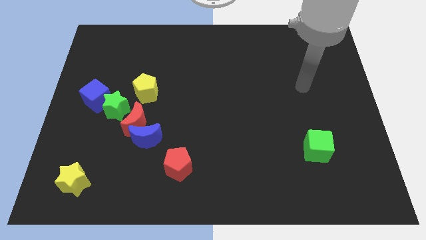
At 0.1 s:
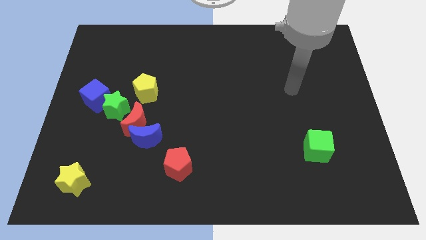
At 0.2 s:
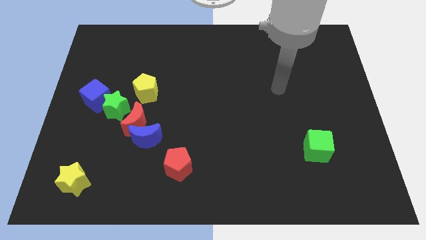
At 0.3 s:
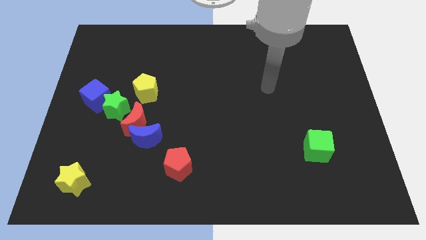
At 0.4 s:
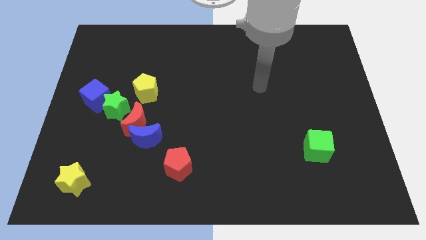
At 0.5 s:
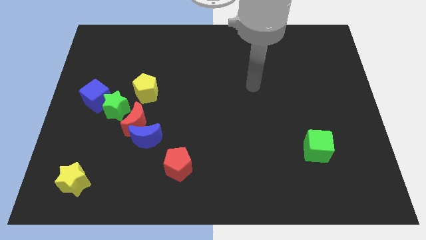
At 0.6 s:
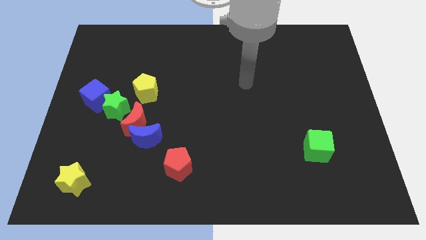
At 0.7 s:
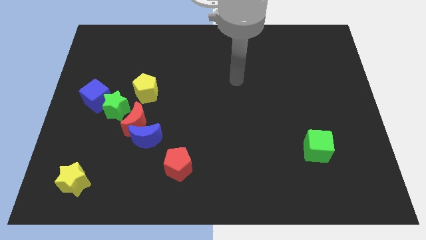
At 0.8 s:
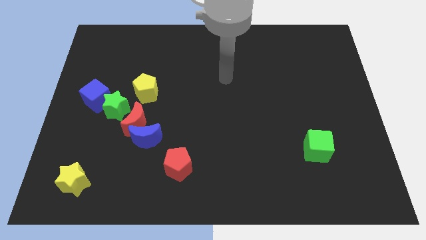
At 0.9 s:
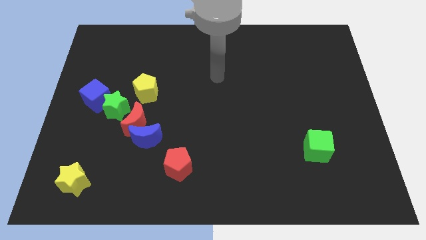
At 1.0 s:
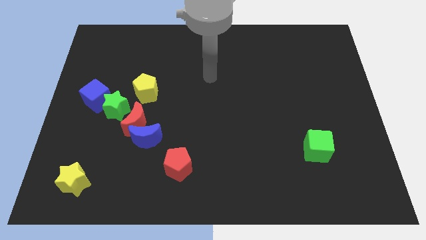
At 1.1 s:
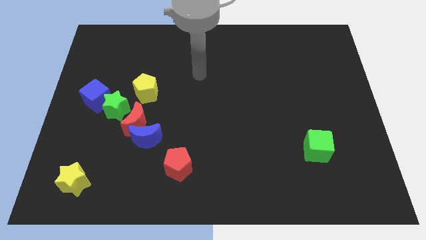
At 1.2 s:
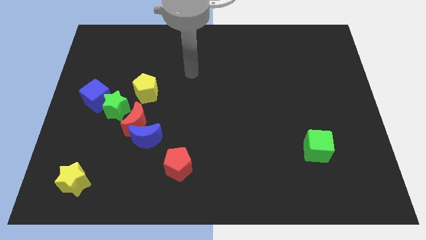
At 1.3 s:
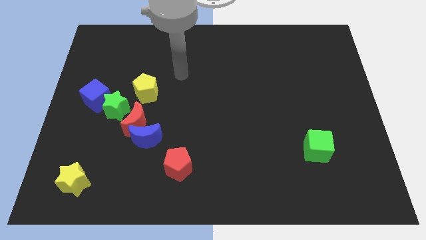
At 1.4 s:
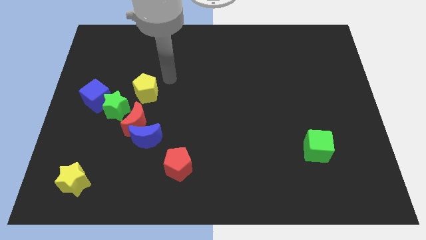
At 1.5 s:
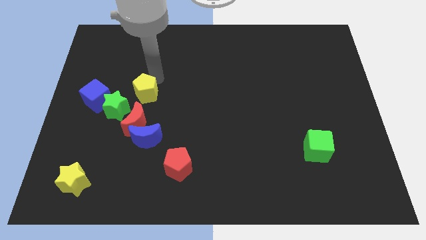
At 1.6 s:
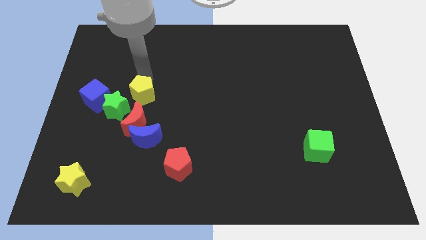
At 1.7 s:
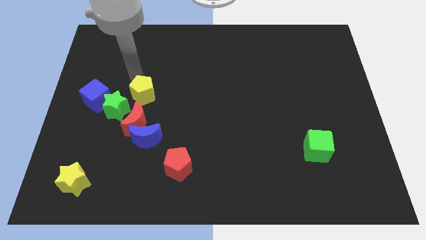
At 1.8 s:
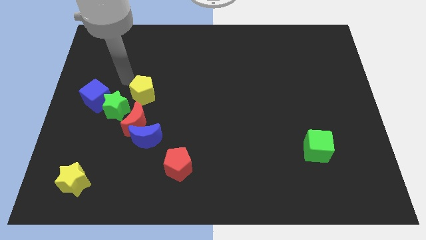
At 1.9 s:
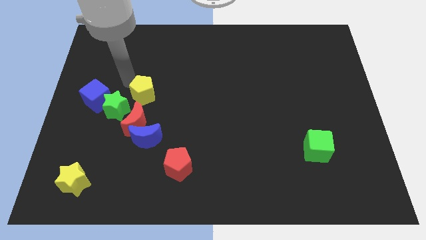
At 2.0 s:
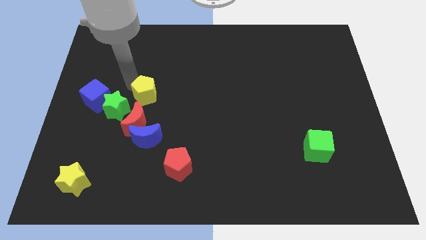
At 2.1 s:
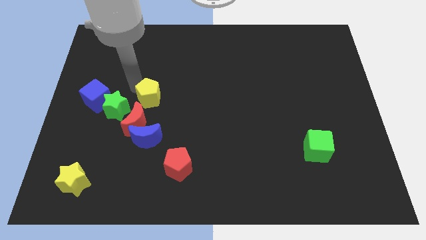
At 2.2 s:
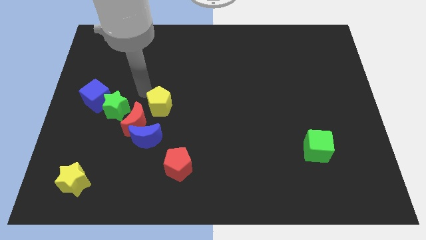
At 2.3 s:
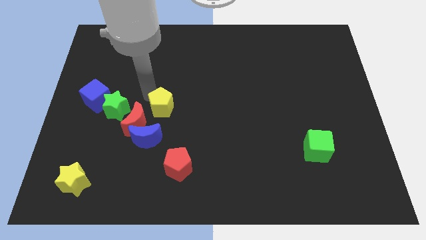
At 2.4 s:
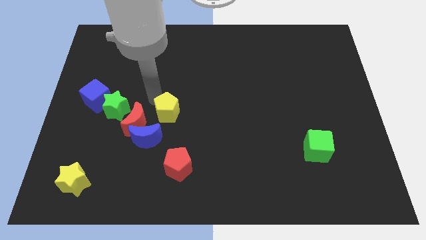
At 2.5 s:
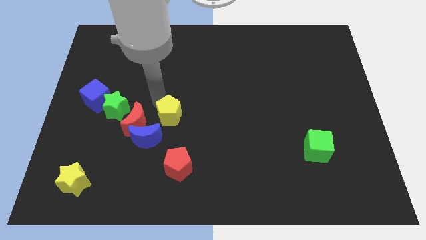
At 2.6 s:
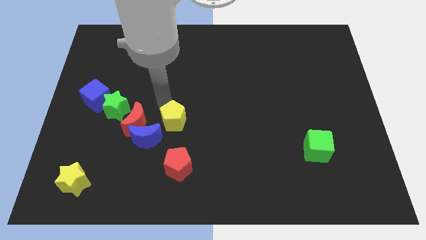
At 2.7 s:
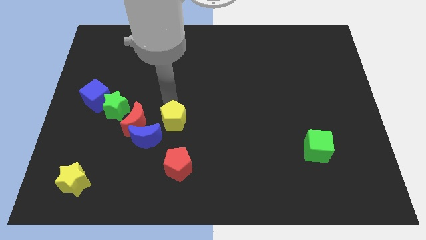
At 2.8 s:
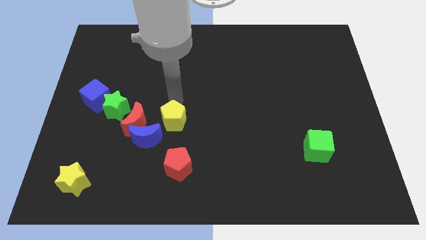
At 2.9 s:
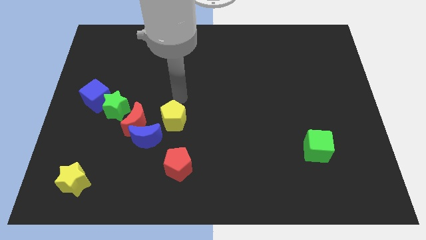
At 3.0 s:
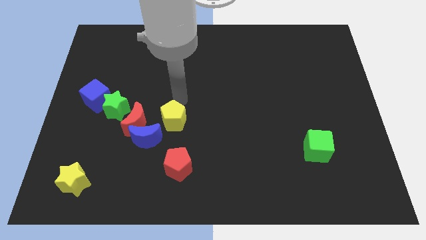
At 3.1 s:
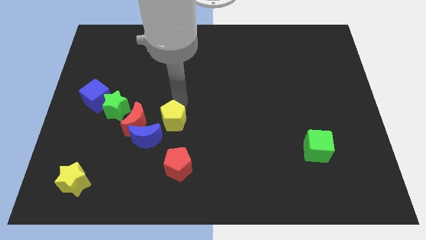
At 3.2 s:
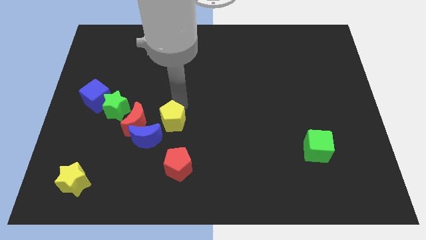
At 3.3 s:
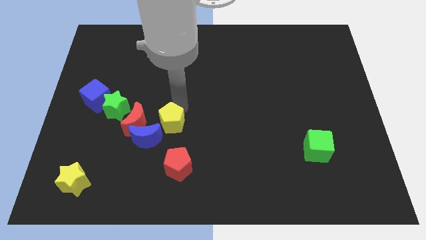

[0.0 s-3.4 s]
slightly push the yellow pentagon down

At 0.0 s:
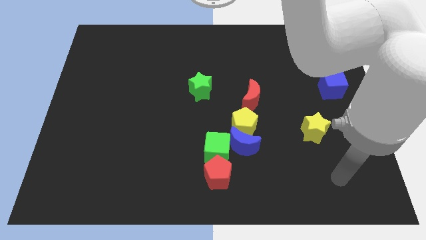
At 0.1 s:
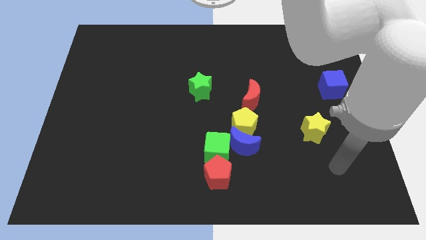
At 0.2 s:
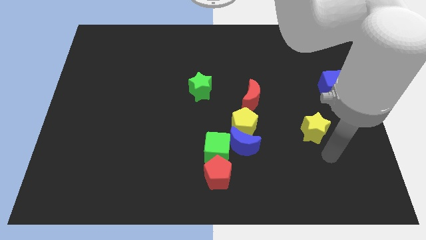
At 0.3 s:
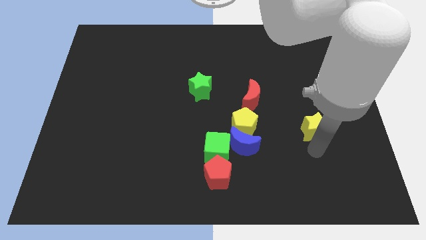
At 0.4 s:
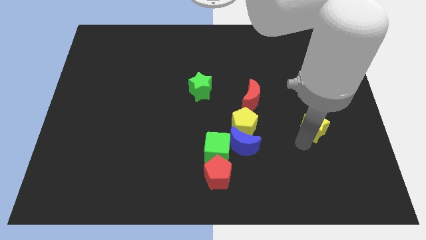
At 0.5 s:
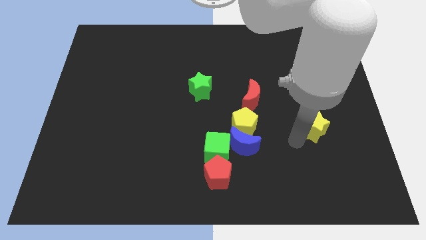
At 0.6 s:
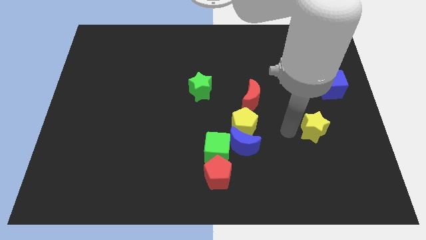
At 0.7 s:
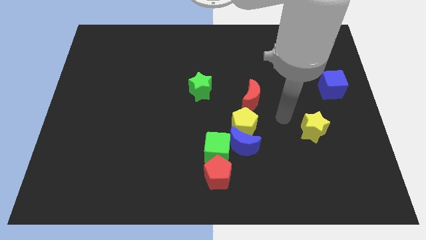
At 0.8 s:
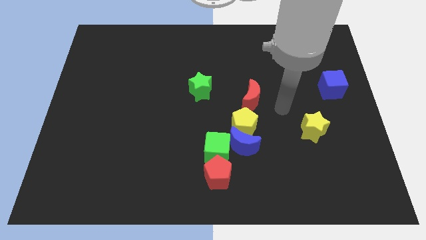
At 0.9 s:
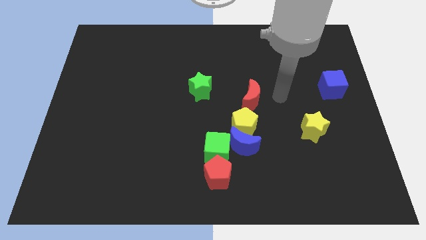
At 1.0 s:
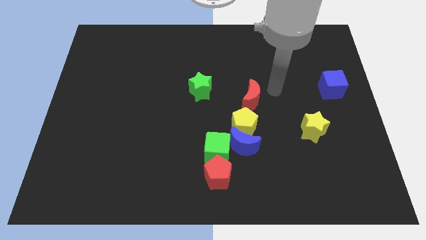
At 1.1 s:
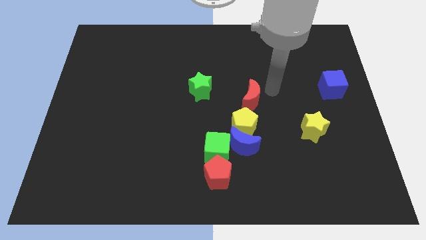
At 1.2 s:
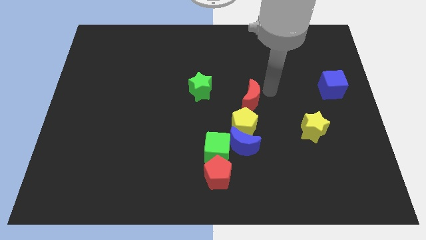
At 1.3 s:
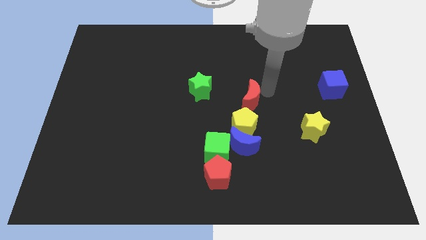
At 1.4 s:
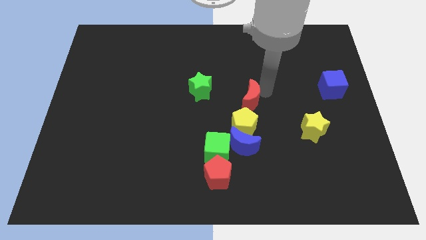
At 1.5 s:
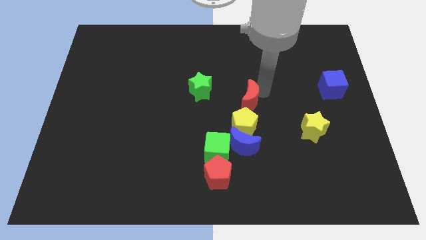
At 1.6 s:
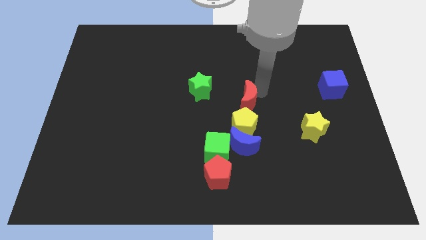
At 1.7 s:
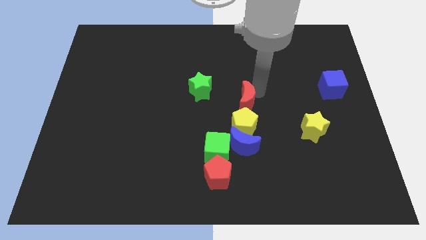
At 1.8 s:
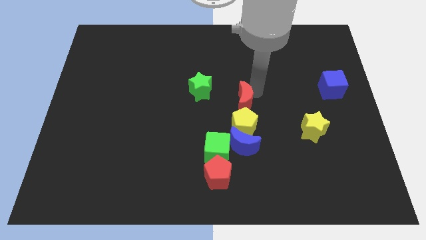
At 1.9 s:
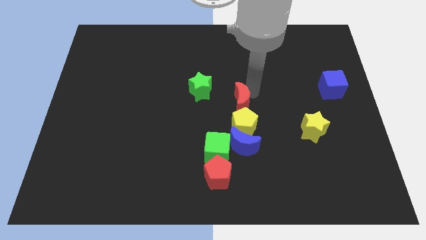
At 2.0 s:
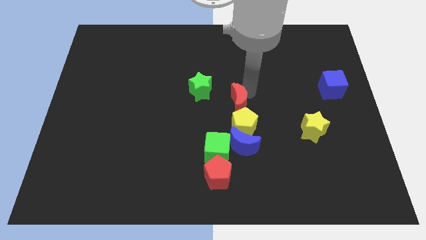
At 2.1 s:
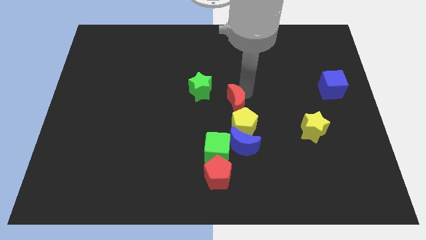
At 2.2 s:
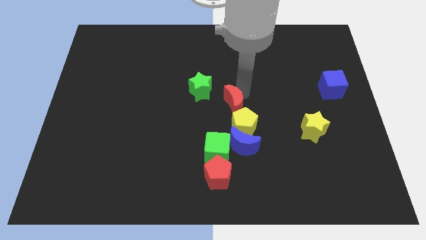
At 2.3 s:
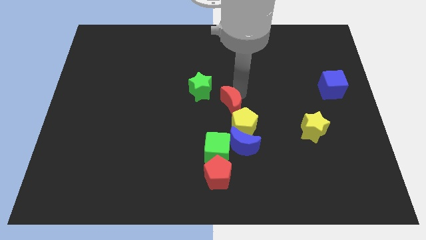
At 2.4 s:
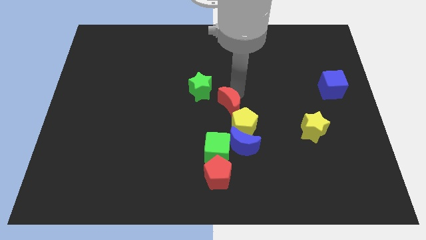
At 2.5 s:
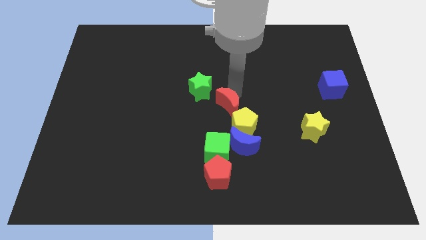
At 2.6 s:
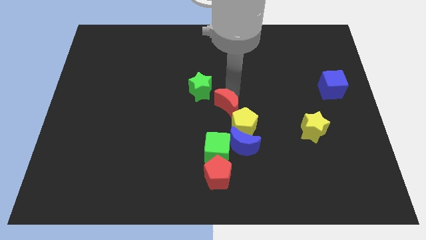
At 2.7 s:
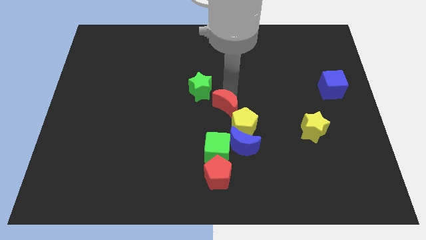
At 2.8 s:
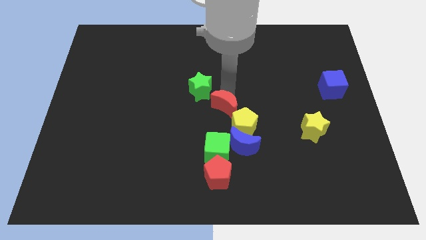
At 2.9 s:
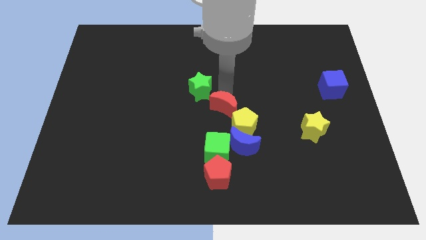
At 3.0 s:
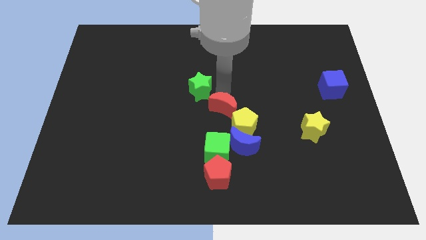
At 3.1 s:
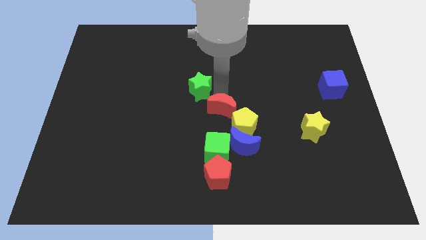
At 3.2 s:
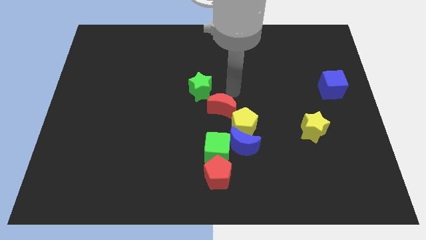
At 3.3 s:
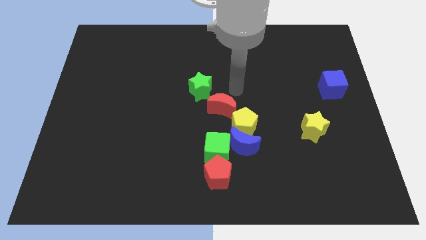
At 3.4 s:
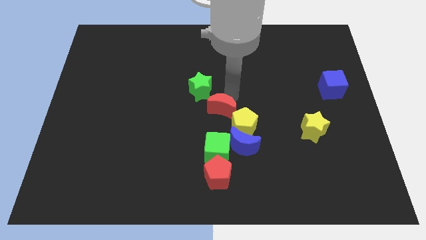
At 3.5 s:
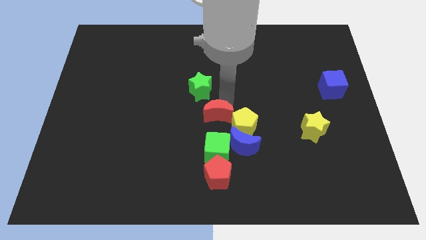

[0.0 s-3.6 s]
slide the red moon a bit downwards and to the left diagonally

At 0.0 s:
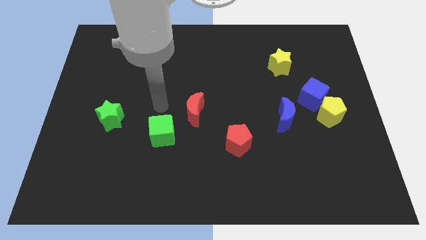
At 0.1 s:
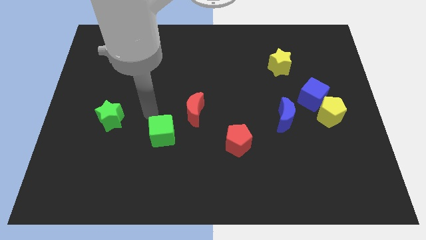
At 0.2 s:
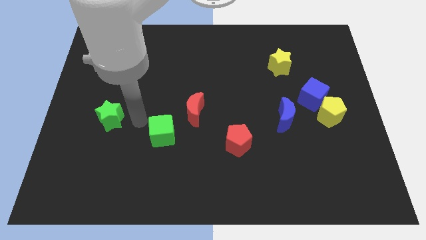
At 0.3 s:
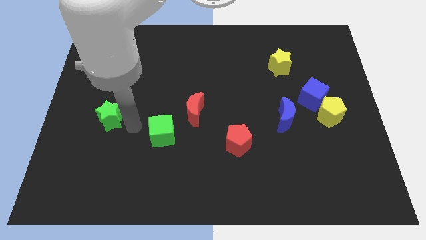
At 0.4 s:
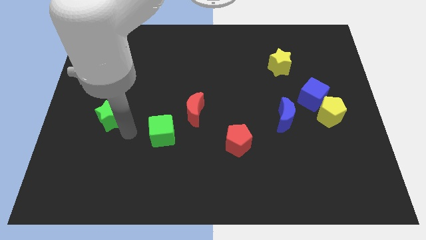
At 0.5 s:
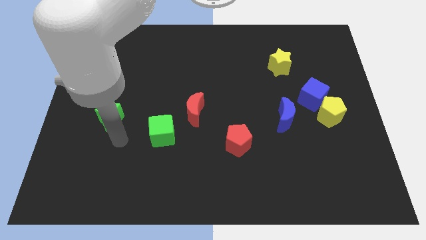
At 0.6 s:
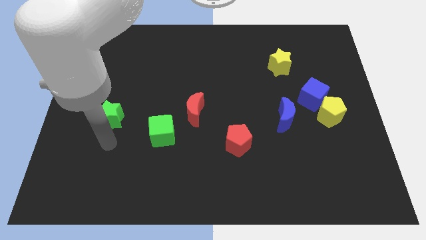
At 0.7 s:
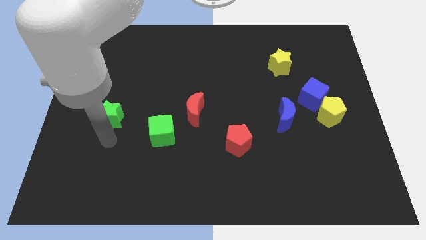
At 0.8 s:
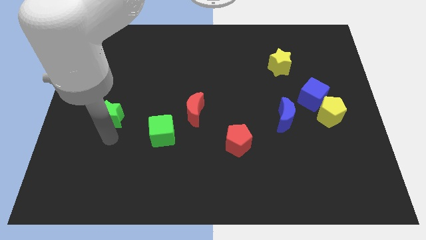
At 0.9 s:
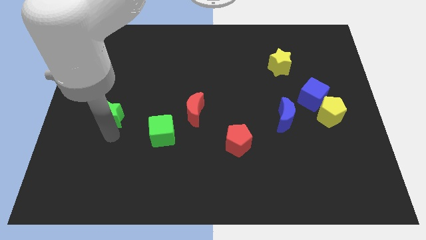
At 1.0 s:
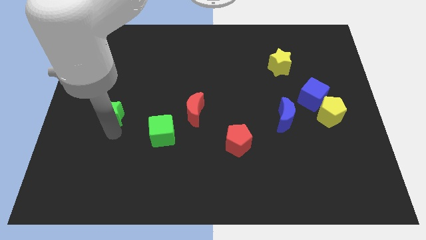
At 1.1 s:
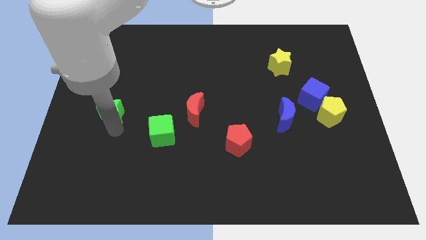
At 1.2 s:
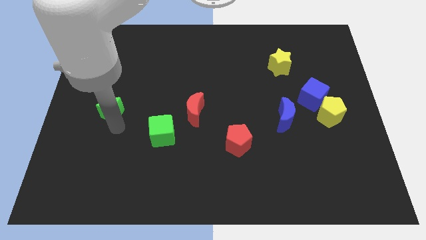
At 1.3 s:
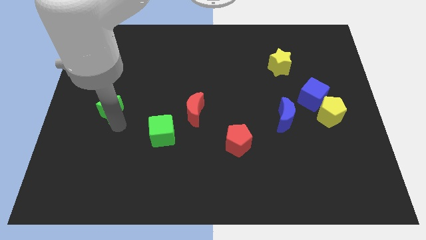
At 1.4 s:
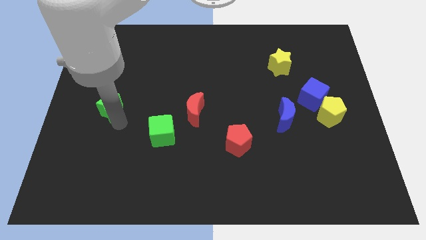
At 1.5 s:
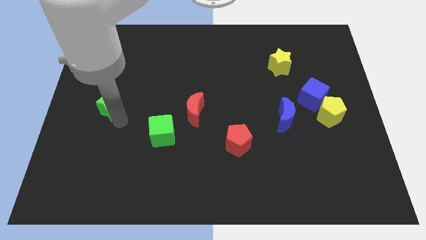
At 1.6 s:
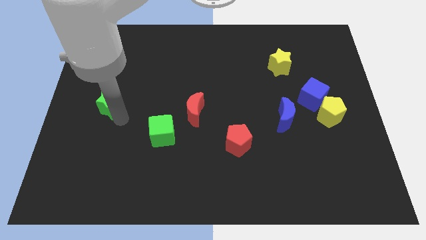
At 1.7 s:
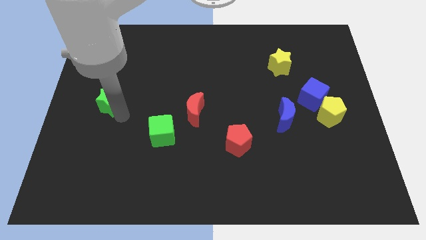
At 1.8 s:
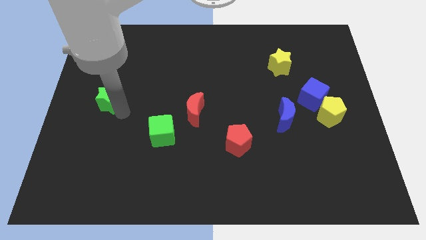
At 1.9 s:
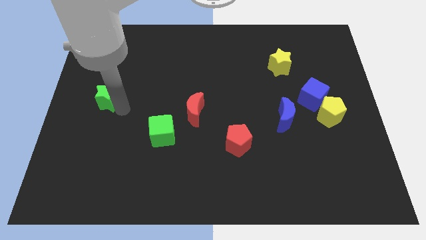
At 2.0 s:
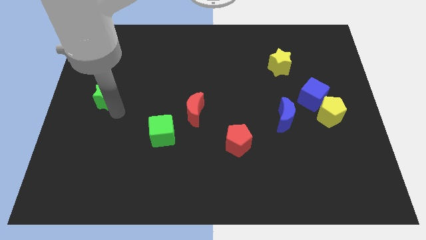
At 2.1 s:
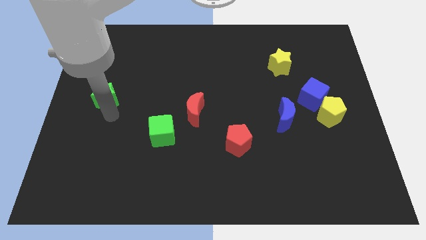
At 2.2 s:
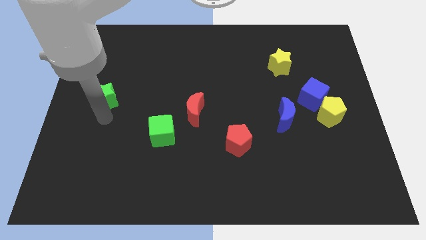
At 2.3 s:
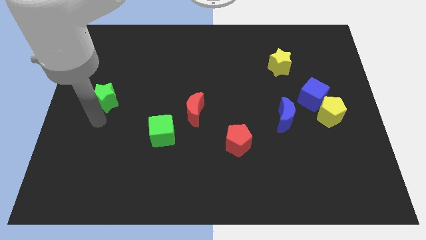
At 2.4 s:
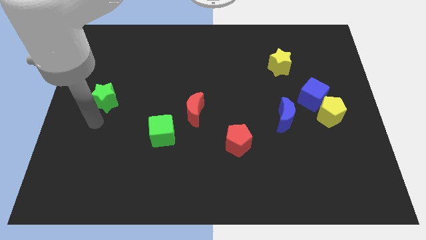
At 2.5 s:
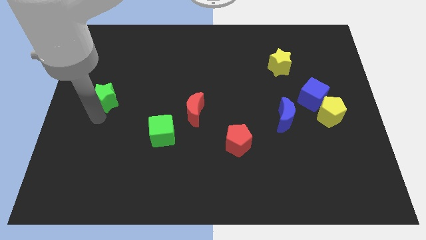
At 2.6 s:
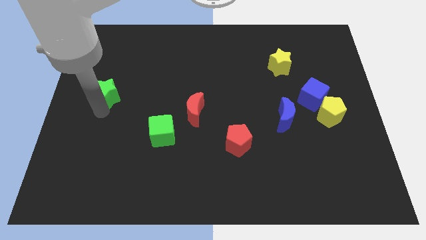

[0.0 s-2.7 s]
slightly slide the green star up
